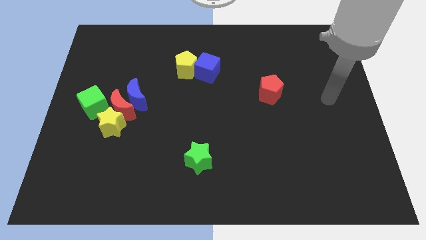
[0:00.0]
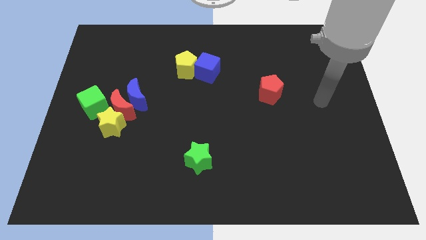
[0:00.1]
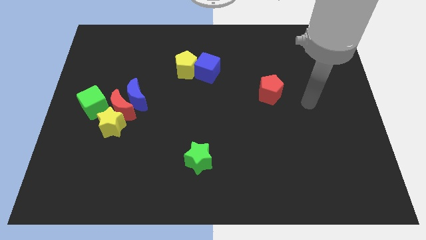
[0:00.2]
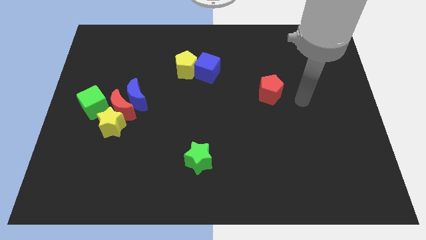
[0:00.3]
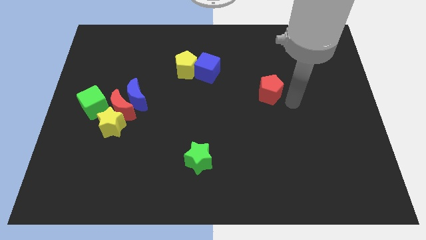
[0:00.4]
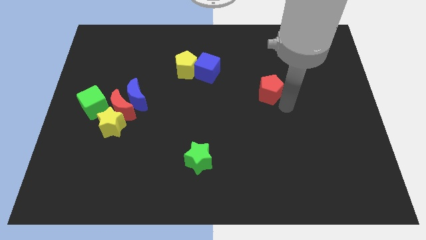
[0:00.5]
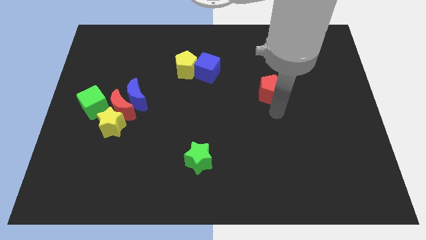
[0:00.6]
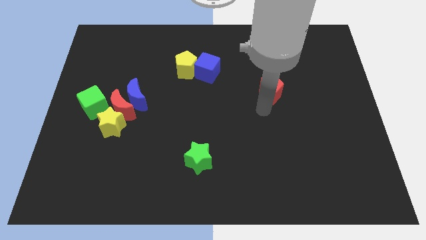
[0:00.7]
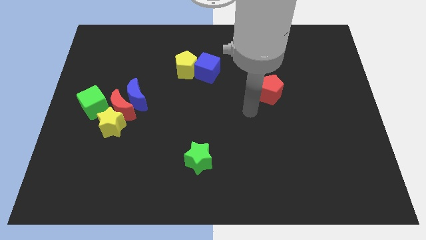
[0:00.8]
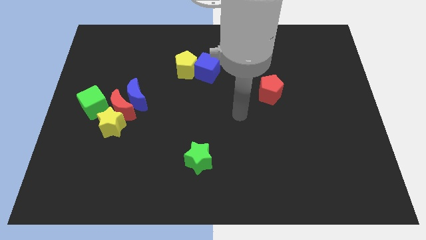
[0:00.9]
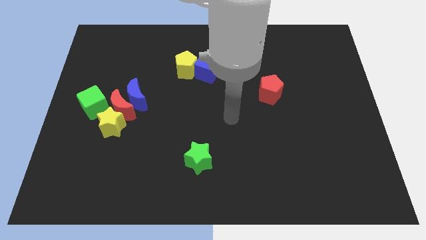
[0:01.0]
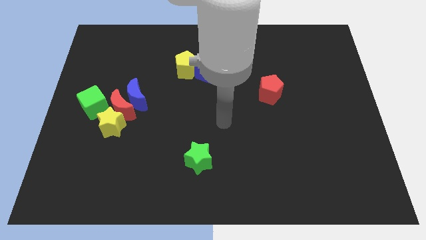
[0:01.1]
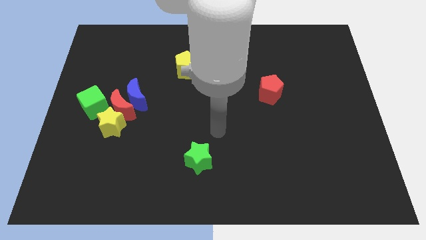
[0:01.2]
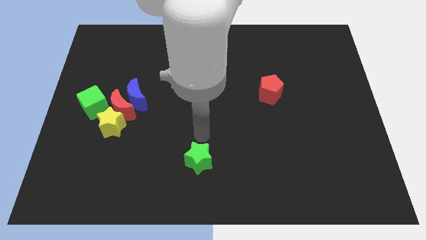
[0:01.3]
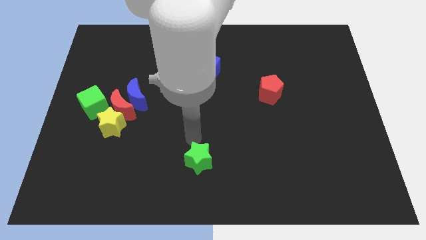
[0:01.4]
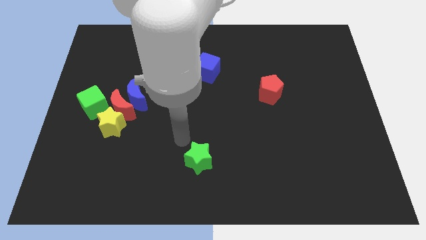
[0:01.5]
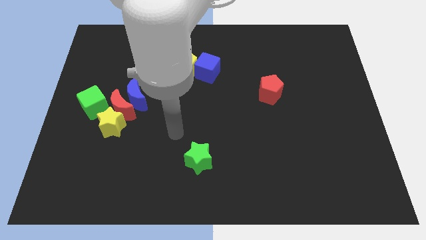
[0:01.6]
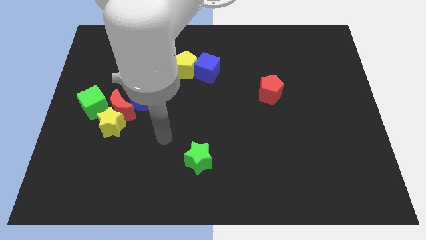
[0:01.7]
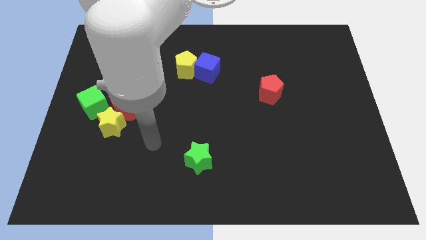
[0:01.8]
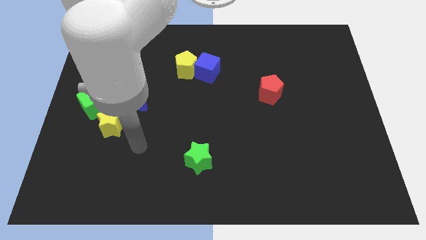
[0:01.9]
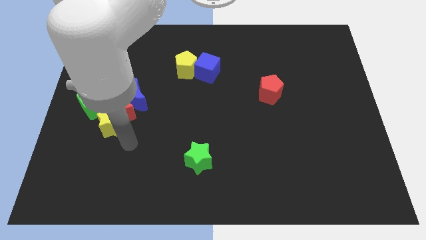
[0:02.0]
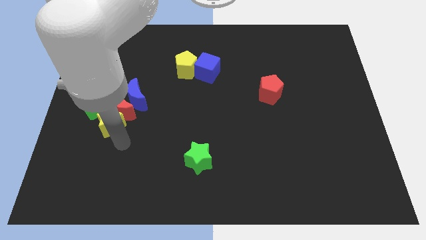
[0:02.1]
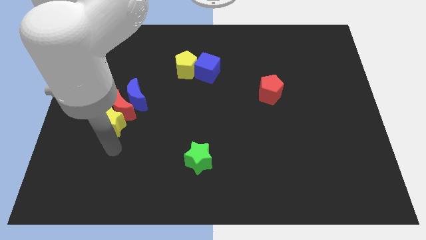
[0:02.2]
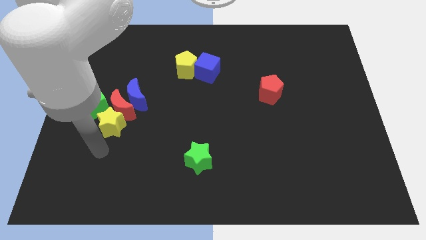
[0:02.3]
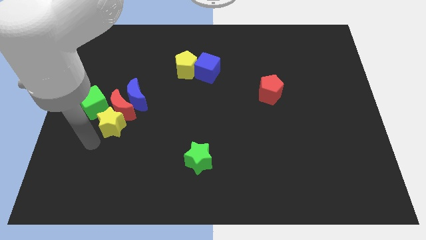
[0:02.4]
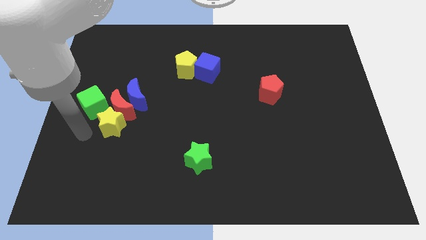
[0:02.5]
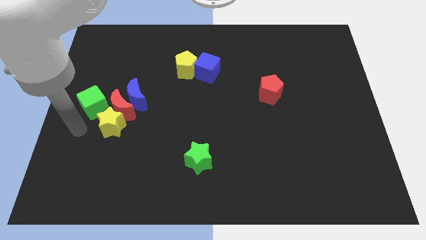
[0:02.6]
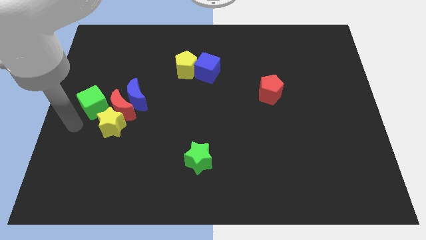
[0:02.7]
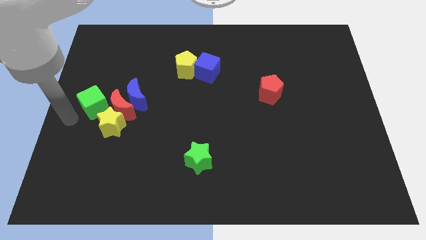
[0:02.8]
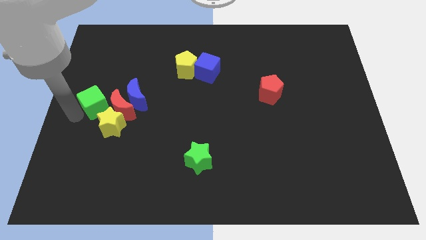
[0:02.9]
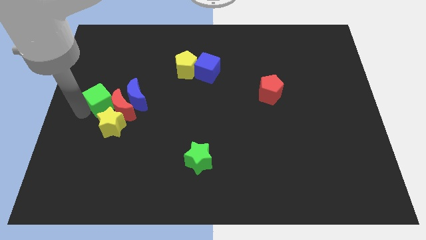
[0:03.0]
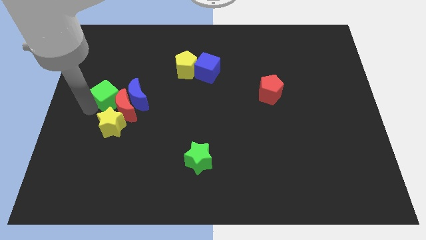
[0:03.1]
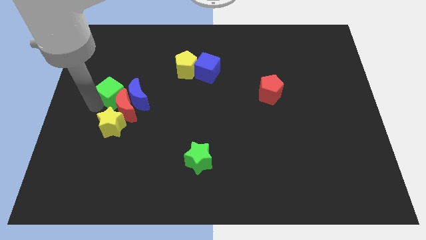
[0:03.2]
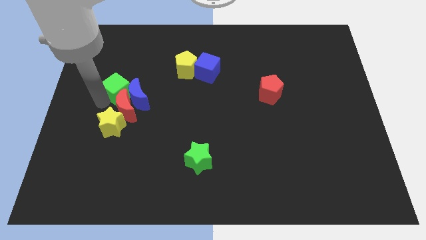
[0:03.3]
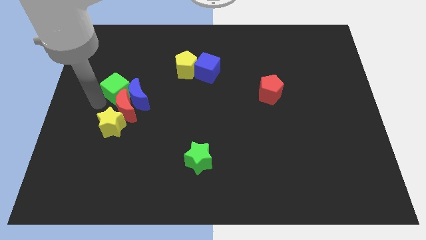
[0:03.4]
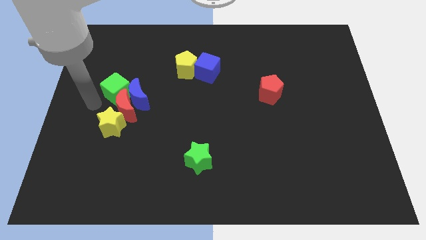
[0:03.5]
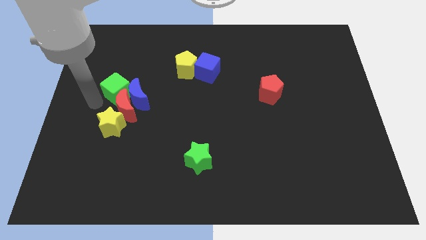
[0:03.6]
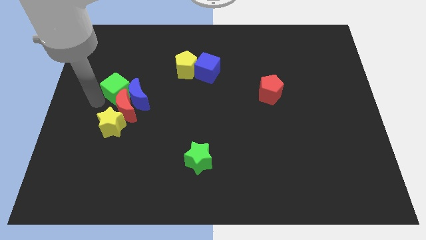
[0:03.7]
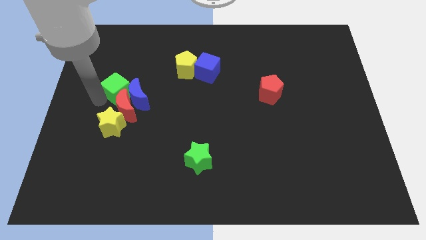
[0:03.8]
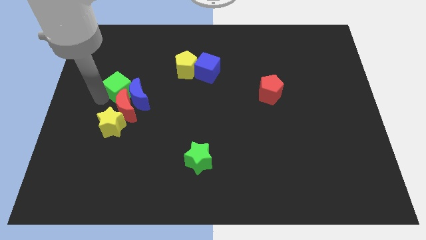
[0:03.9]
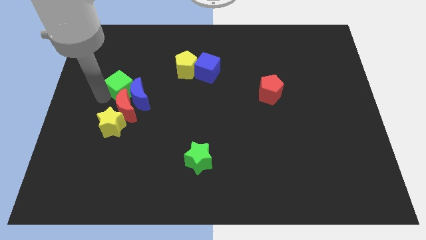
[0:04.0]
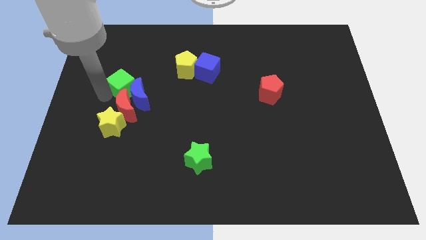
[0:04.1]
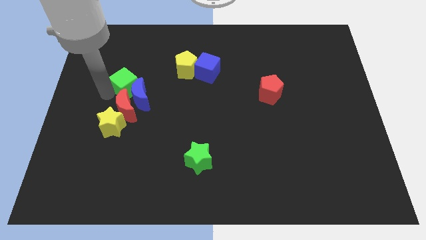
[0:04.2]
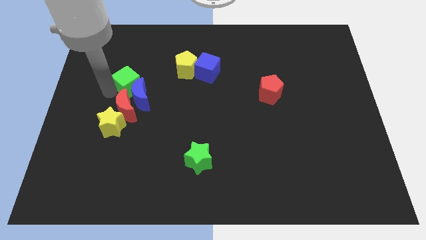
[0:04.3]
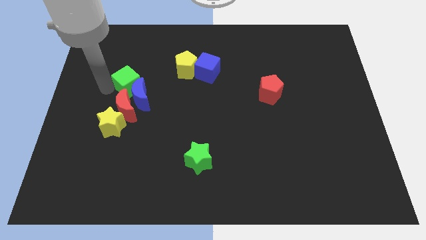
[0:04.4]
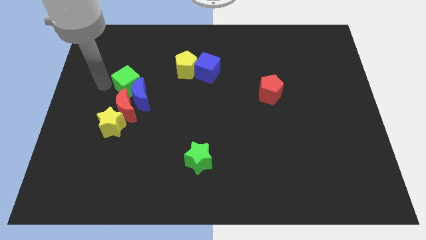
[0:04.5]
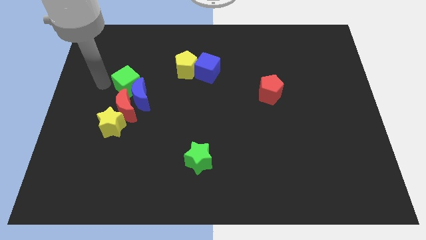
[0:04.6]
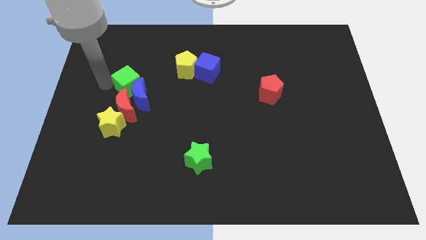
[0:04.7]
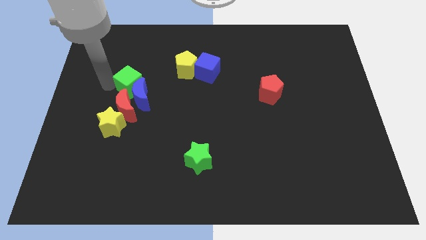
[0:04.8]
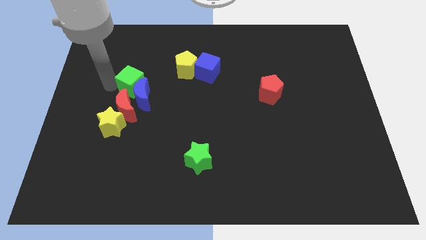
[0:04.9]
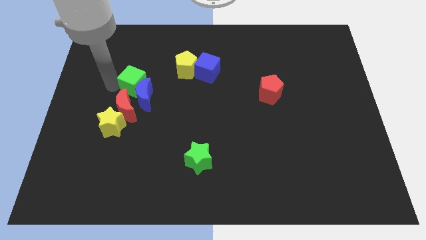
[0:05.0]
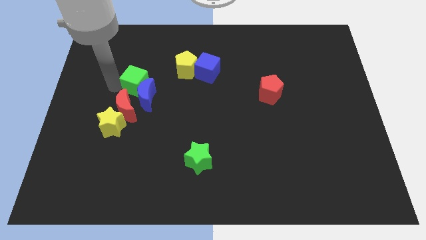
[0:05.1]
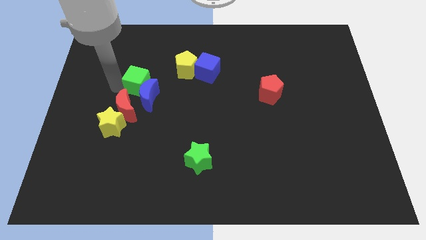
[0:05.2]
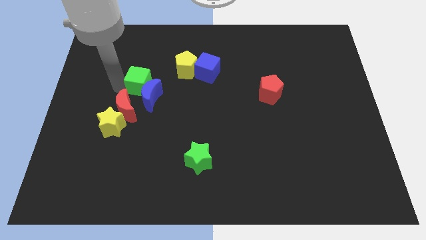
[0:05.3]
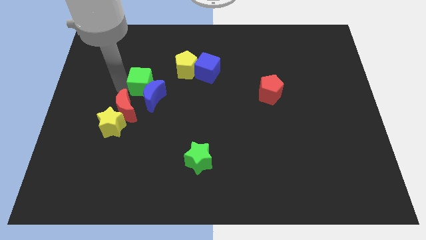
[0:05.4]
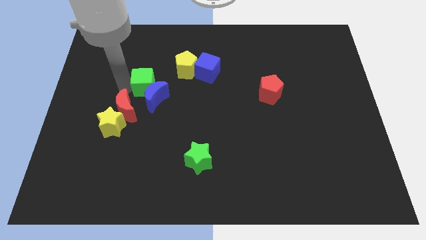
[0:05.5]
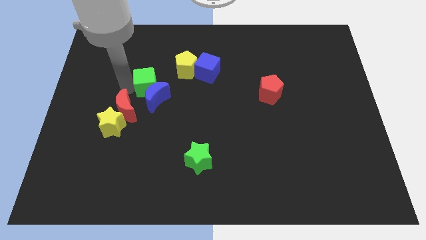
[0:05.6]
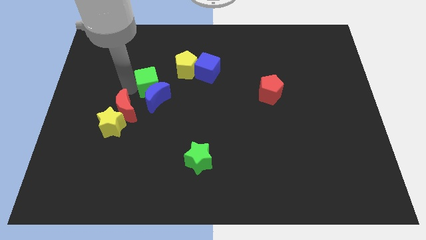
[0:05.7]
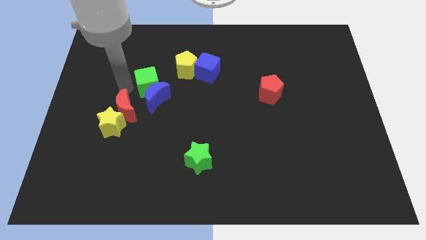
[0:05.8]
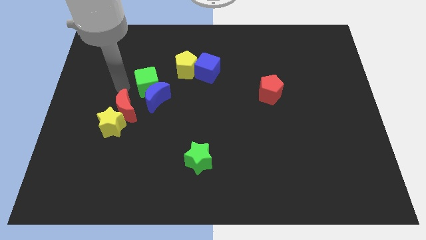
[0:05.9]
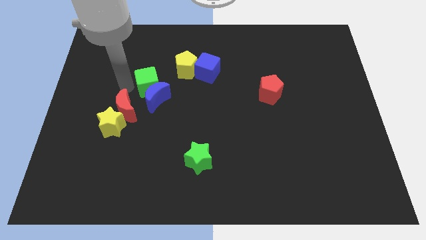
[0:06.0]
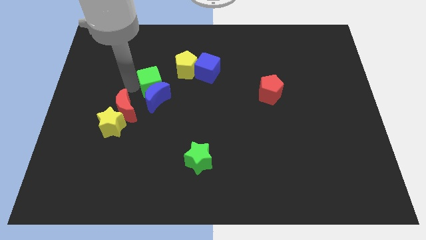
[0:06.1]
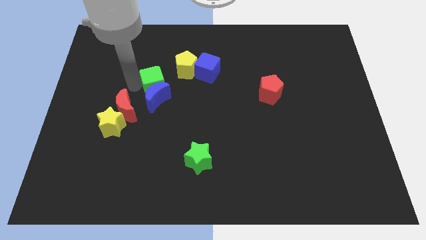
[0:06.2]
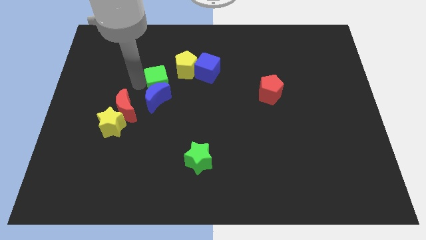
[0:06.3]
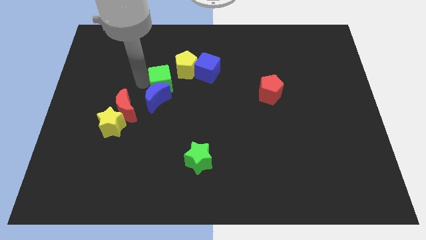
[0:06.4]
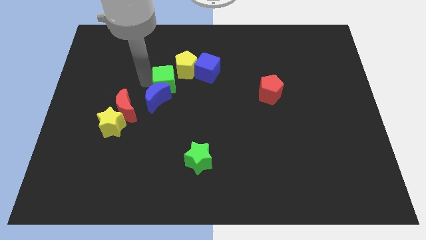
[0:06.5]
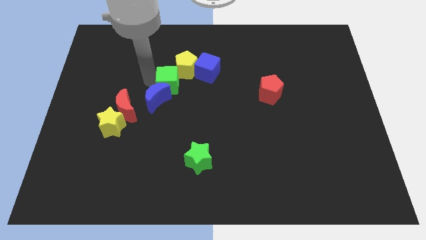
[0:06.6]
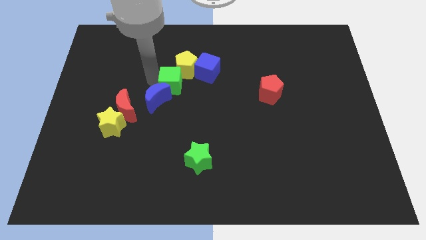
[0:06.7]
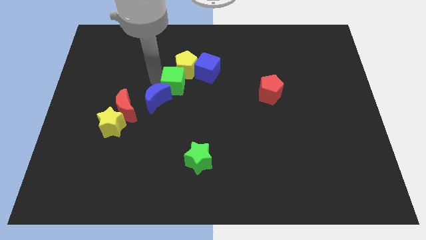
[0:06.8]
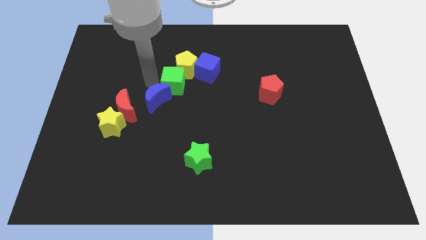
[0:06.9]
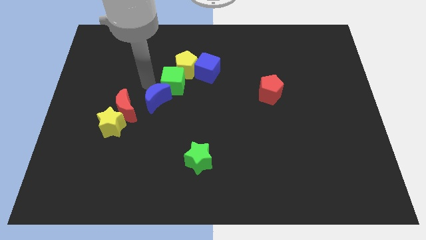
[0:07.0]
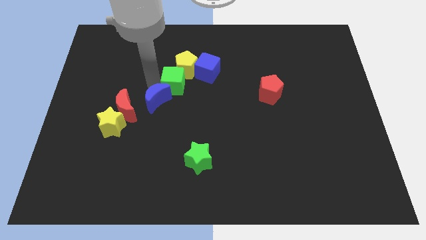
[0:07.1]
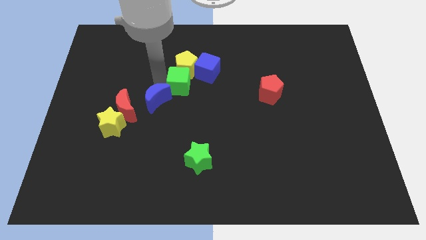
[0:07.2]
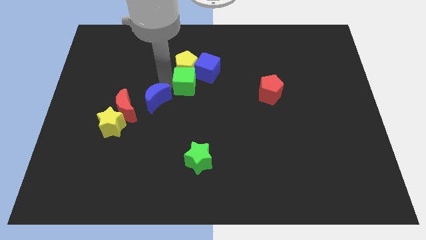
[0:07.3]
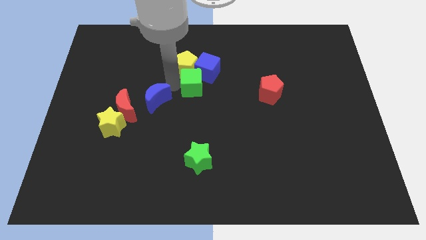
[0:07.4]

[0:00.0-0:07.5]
push the green cube towards the blue cube

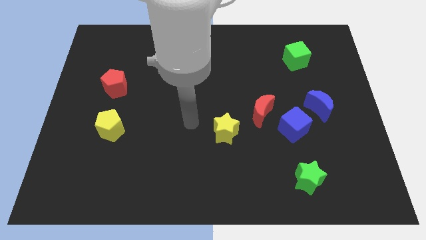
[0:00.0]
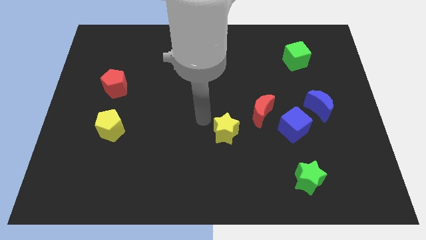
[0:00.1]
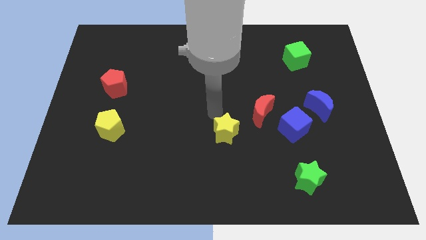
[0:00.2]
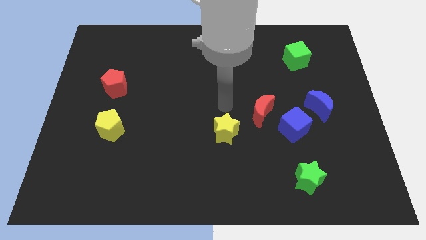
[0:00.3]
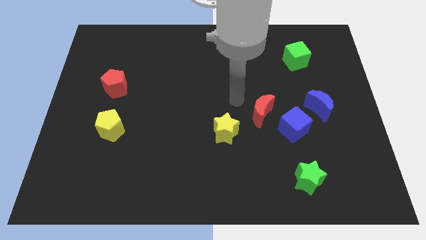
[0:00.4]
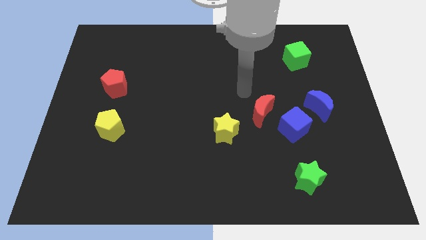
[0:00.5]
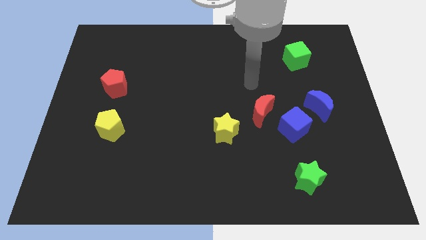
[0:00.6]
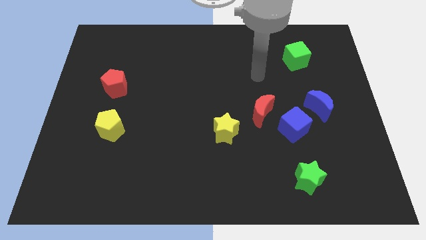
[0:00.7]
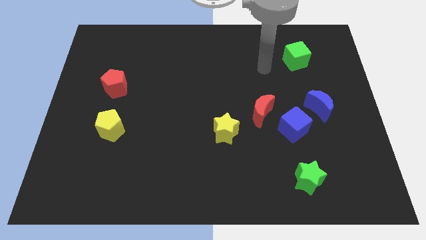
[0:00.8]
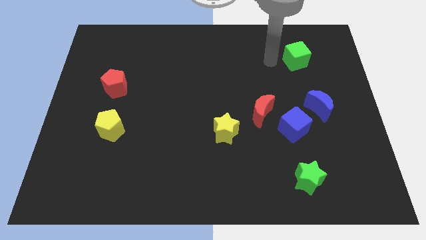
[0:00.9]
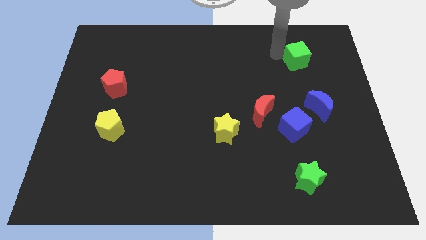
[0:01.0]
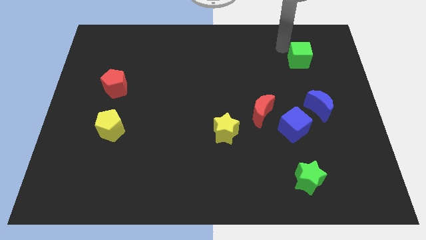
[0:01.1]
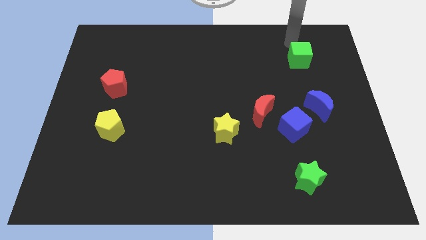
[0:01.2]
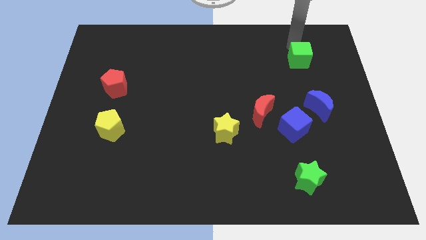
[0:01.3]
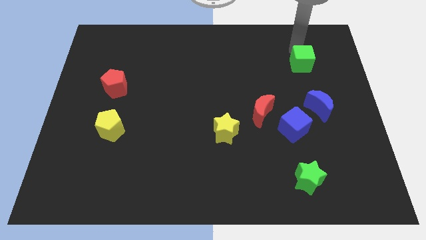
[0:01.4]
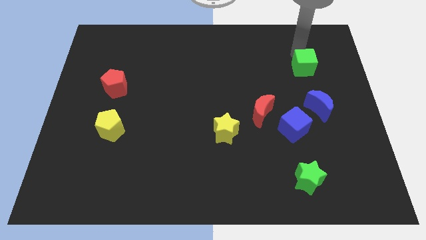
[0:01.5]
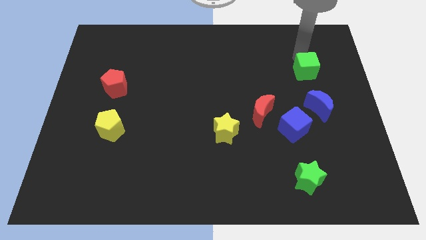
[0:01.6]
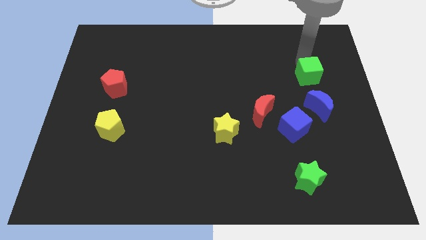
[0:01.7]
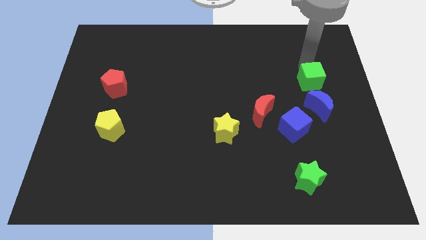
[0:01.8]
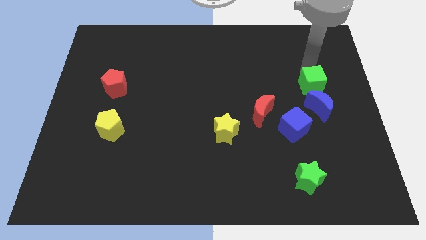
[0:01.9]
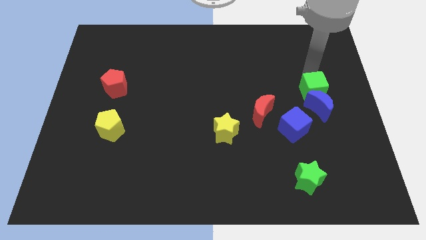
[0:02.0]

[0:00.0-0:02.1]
slide the green cube next to the blue moon
